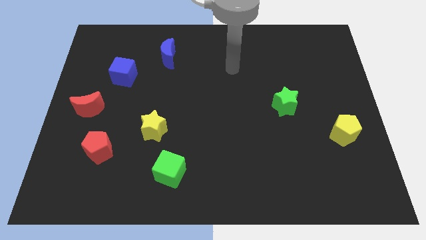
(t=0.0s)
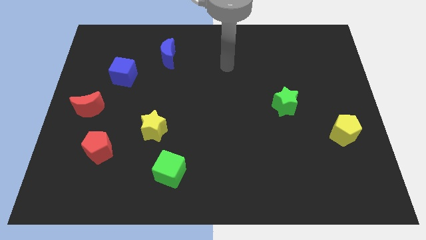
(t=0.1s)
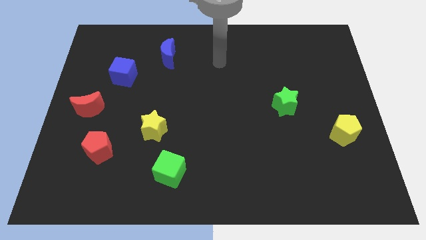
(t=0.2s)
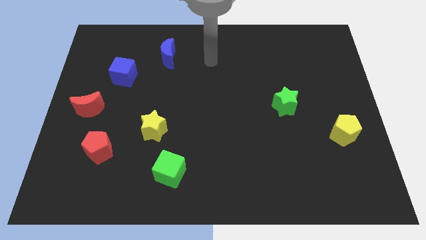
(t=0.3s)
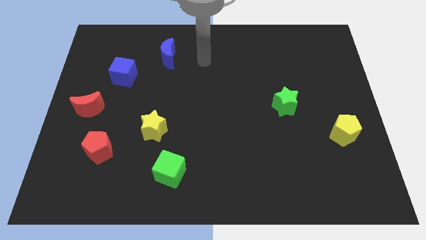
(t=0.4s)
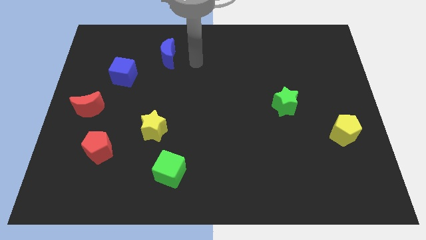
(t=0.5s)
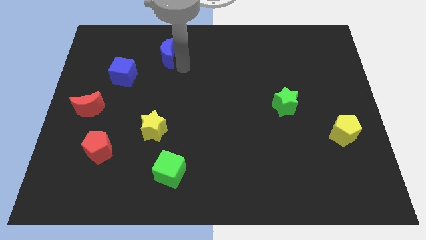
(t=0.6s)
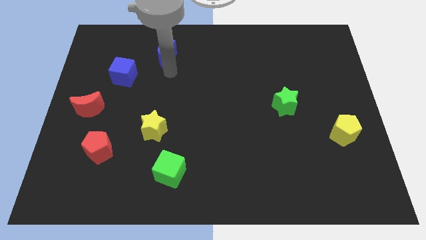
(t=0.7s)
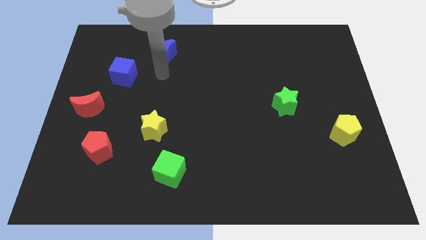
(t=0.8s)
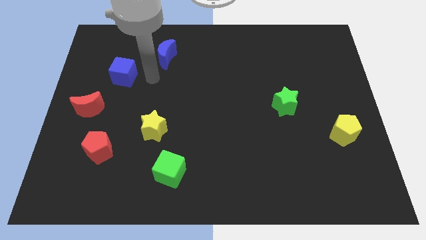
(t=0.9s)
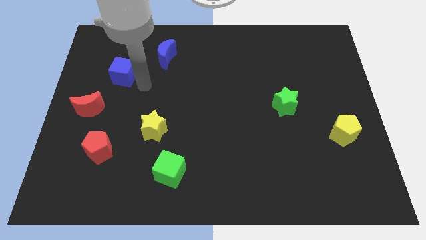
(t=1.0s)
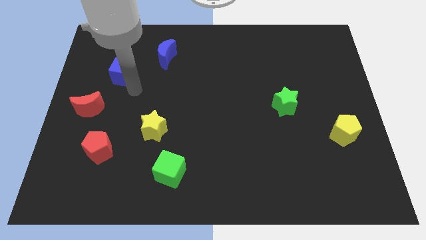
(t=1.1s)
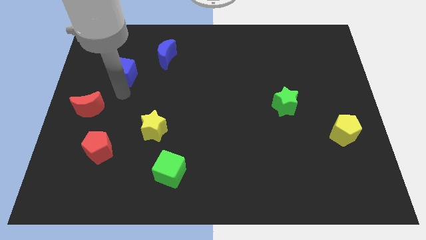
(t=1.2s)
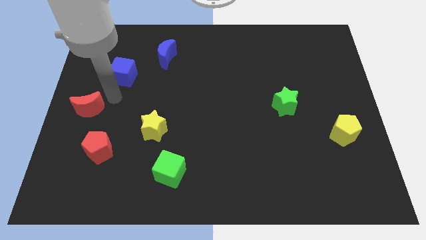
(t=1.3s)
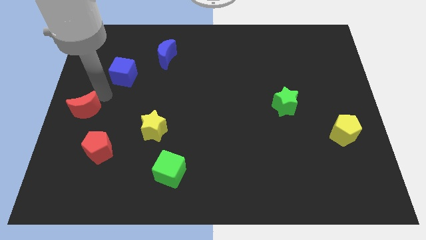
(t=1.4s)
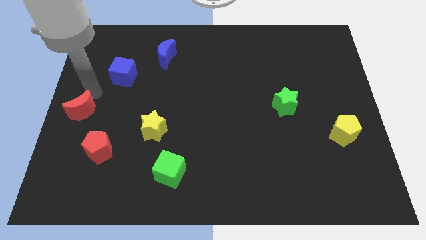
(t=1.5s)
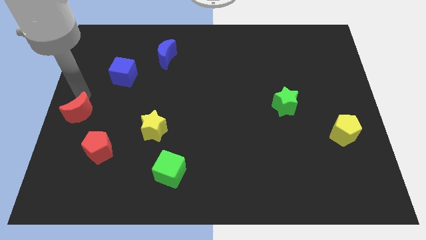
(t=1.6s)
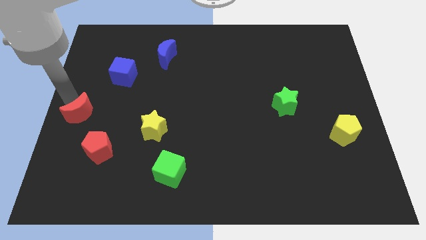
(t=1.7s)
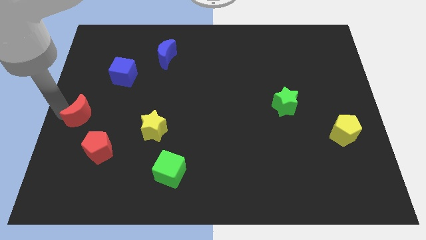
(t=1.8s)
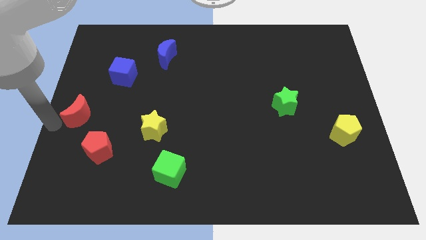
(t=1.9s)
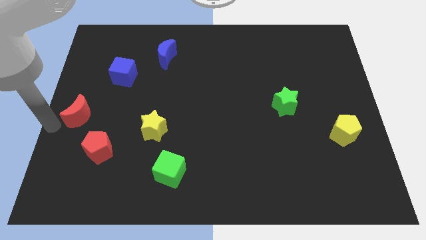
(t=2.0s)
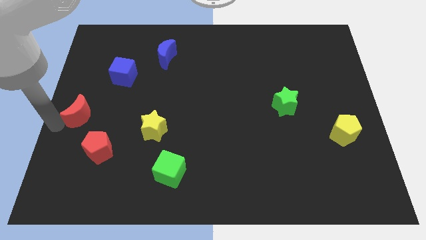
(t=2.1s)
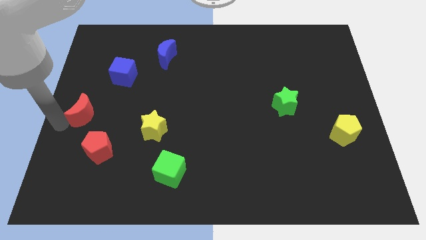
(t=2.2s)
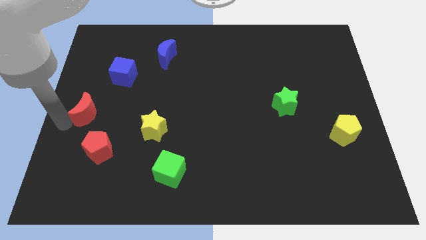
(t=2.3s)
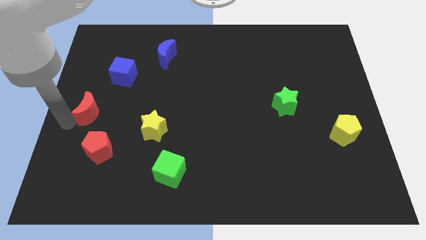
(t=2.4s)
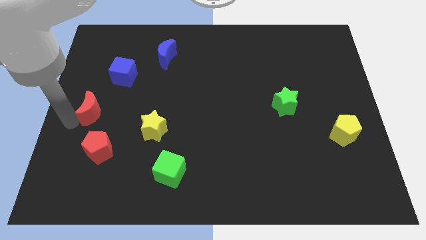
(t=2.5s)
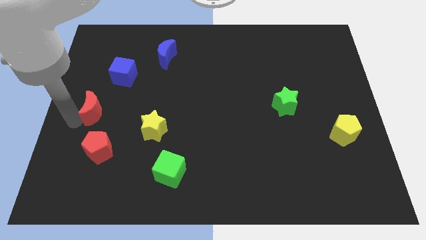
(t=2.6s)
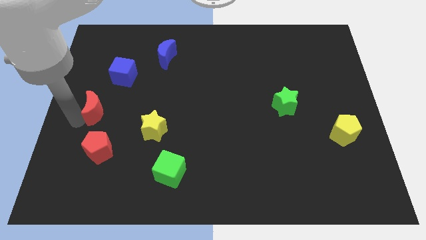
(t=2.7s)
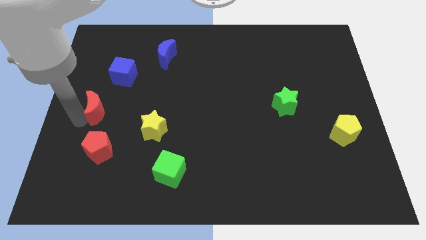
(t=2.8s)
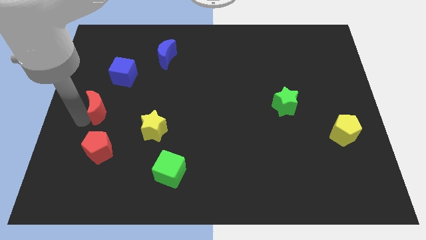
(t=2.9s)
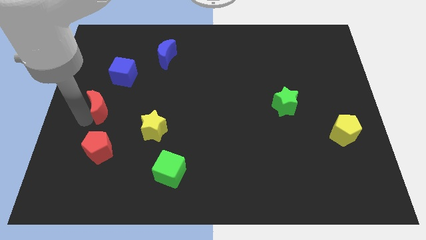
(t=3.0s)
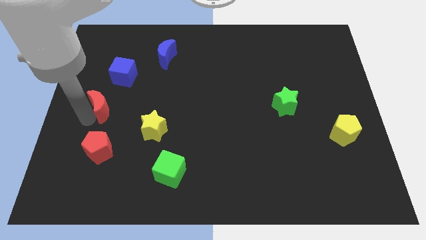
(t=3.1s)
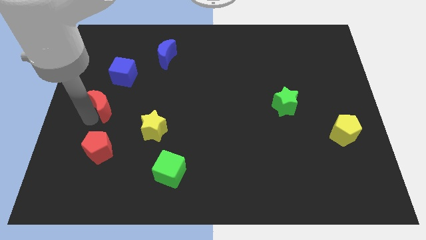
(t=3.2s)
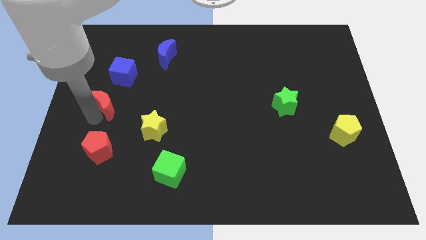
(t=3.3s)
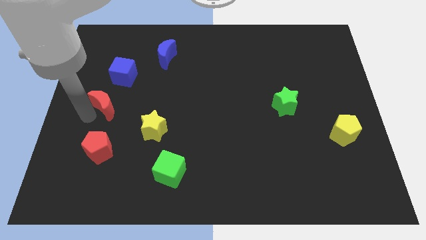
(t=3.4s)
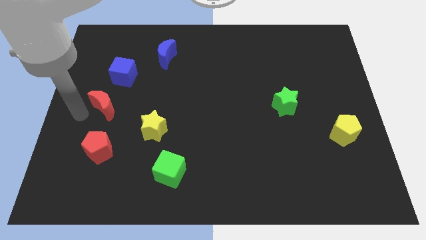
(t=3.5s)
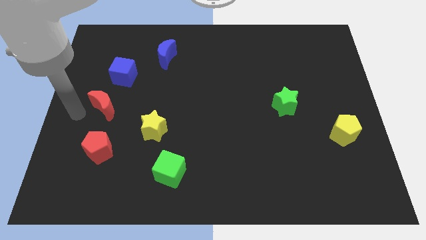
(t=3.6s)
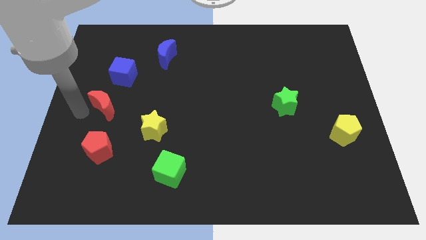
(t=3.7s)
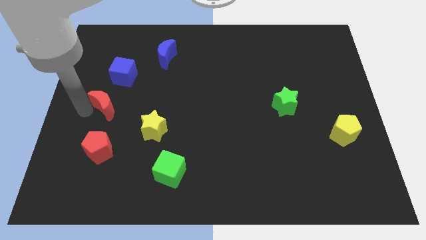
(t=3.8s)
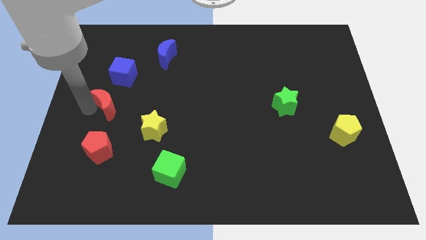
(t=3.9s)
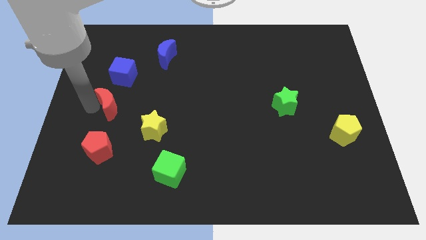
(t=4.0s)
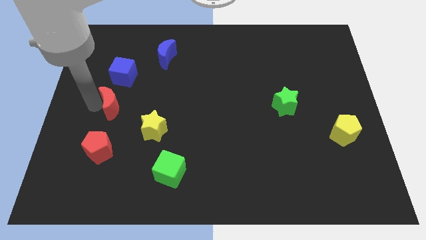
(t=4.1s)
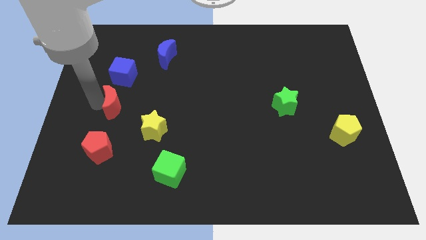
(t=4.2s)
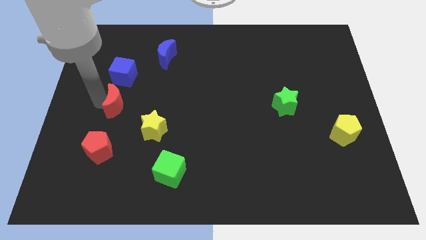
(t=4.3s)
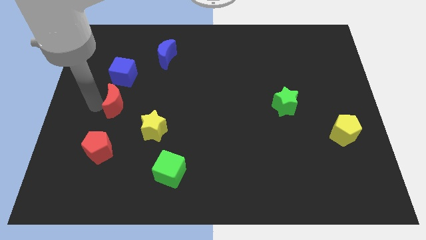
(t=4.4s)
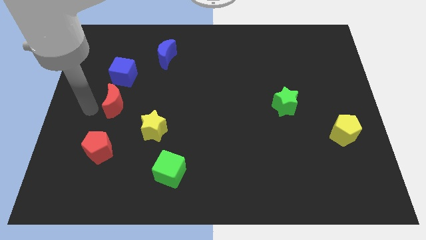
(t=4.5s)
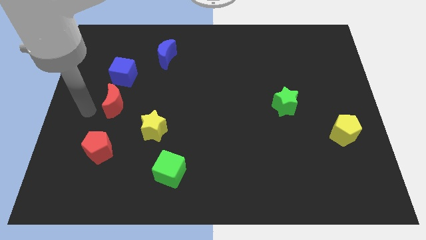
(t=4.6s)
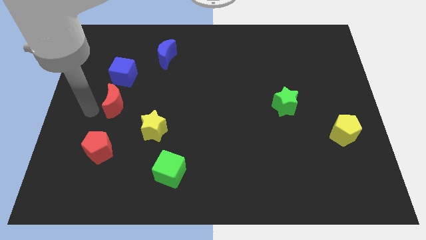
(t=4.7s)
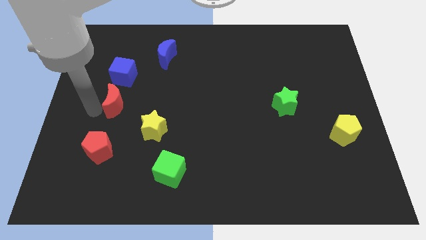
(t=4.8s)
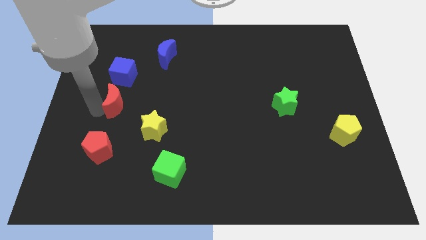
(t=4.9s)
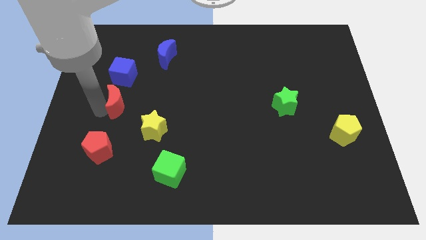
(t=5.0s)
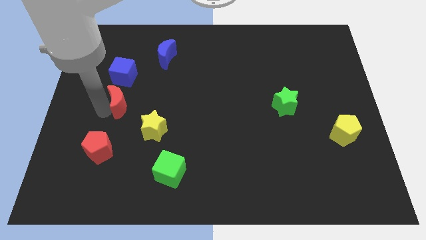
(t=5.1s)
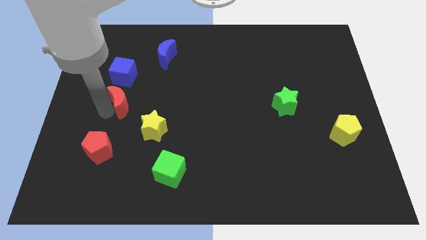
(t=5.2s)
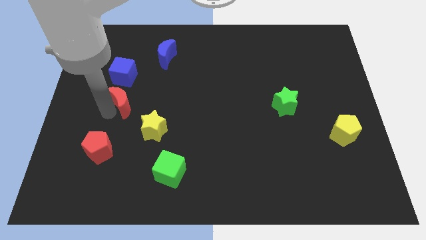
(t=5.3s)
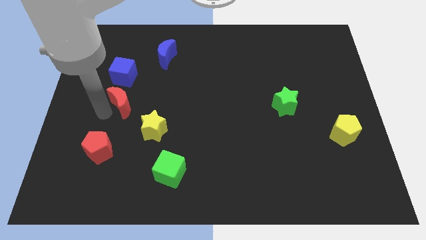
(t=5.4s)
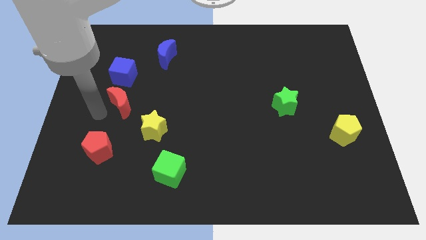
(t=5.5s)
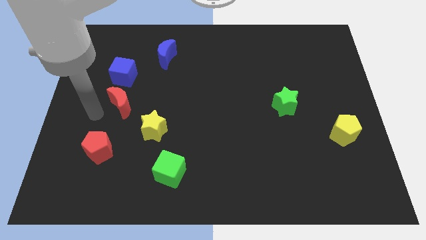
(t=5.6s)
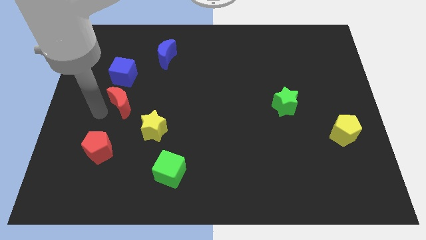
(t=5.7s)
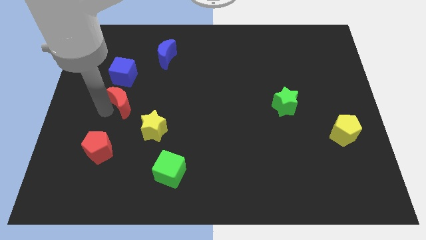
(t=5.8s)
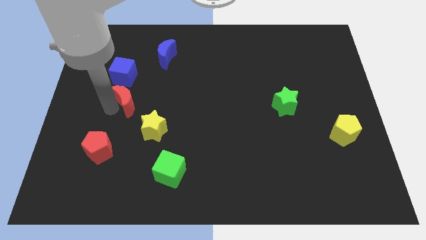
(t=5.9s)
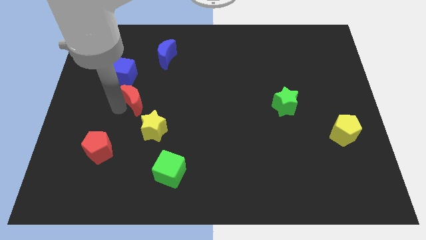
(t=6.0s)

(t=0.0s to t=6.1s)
slightly move the red moon diagonally up and right

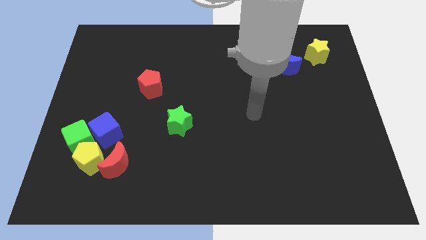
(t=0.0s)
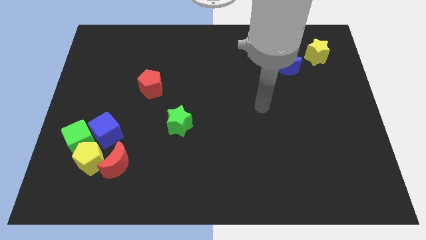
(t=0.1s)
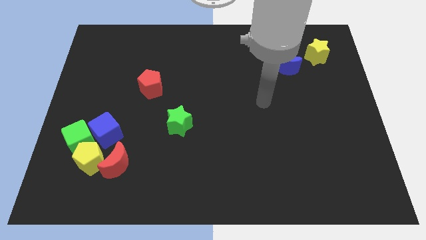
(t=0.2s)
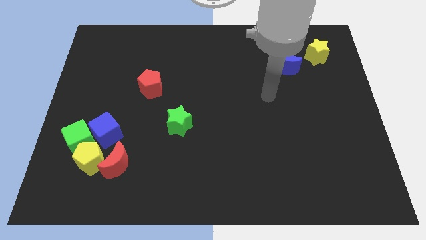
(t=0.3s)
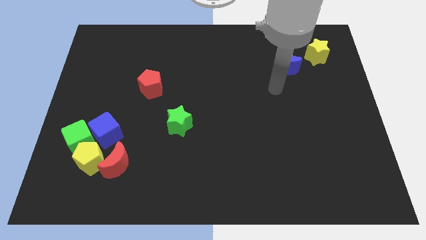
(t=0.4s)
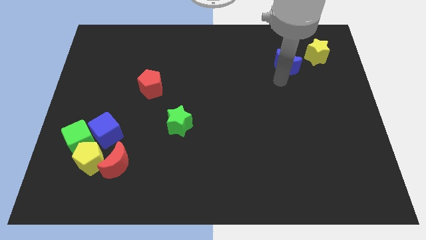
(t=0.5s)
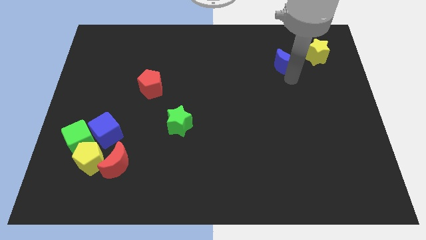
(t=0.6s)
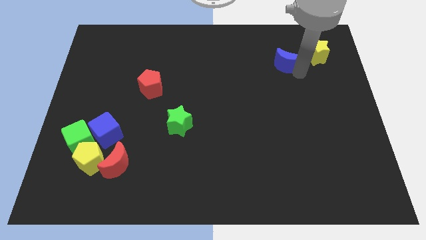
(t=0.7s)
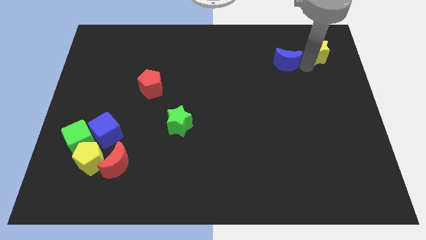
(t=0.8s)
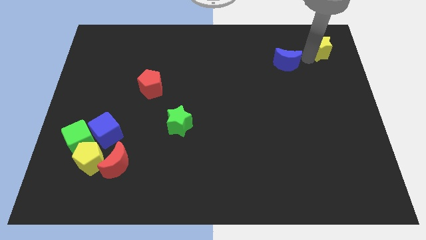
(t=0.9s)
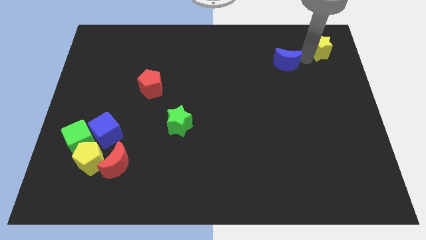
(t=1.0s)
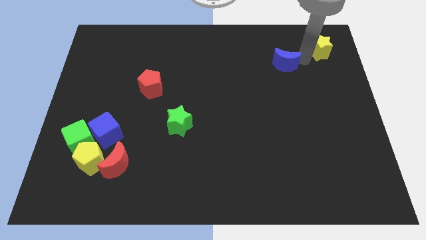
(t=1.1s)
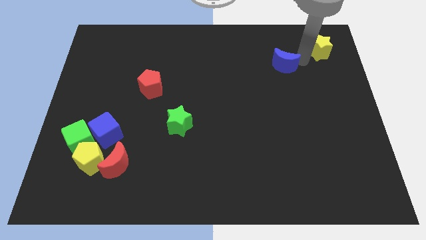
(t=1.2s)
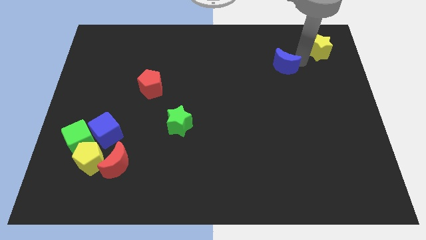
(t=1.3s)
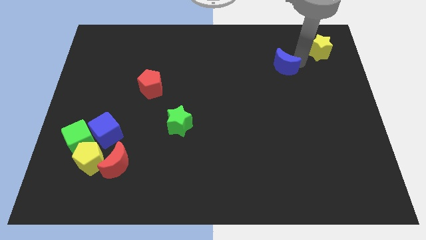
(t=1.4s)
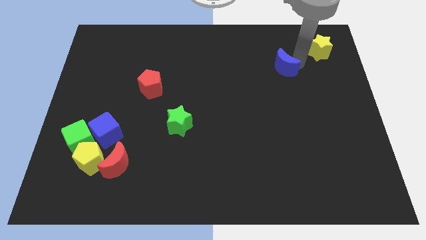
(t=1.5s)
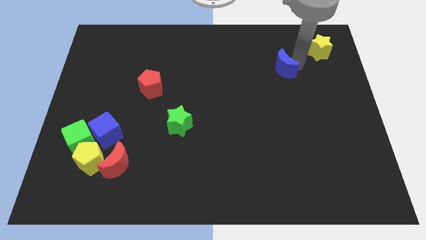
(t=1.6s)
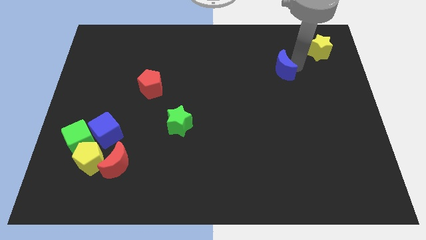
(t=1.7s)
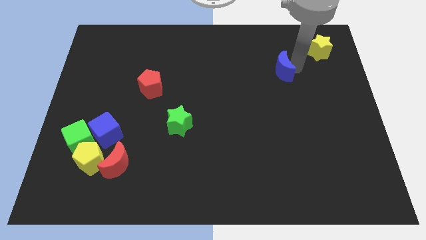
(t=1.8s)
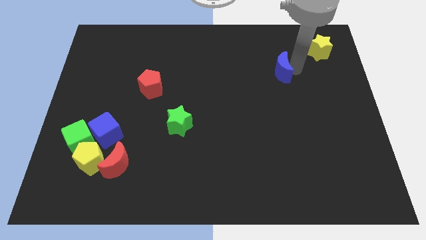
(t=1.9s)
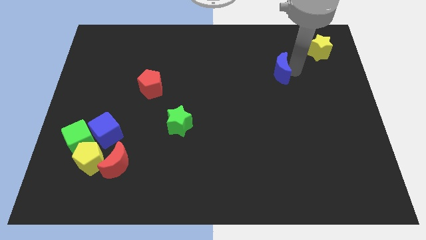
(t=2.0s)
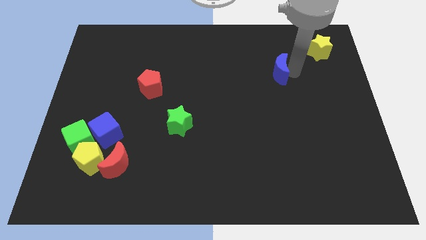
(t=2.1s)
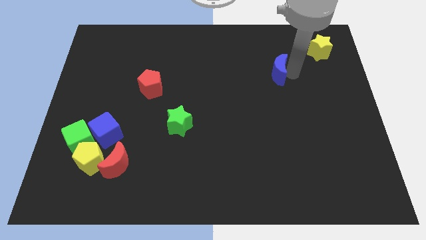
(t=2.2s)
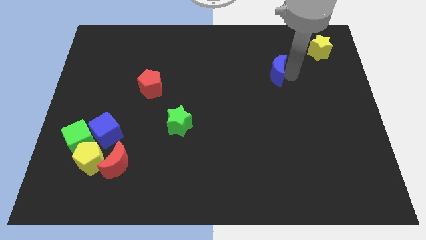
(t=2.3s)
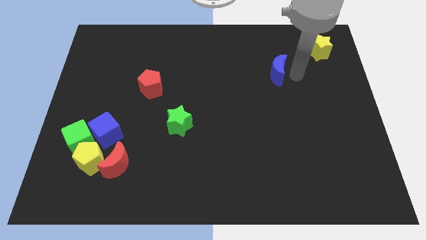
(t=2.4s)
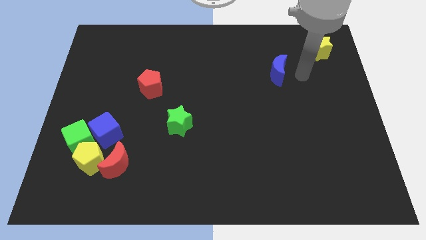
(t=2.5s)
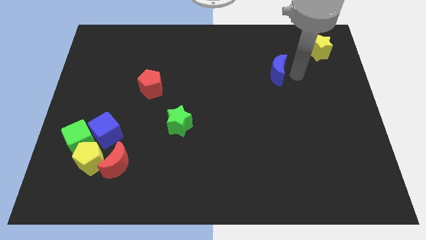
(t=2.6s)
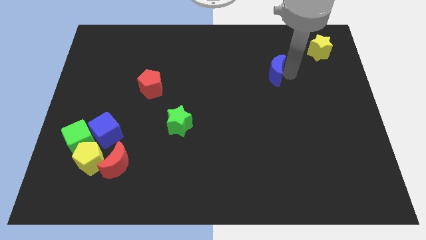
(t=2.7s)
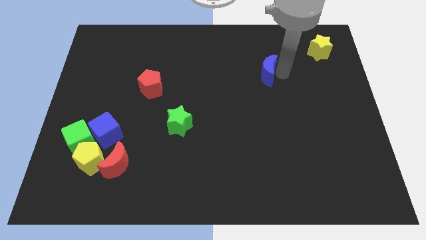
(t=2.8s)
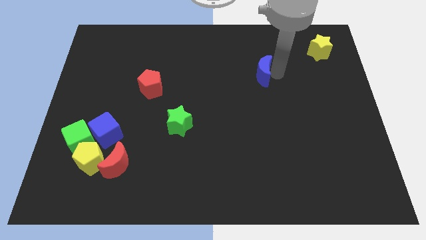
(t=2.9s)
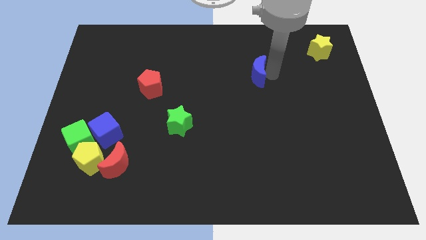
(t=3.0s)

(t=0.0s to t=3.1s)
slightly push the blue moon to the left
